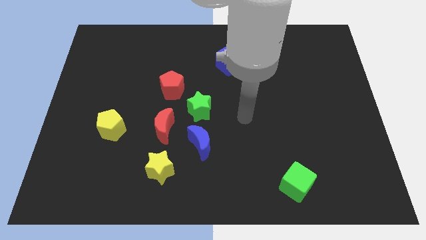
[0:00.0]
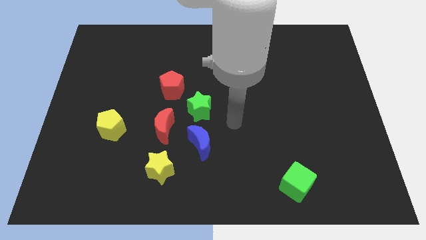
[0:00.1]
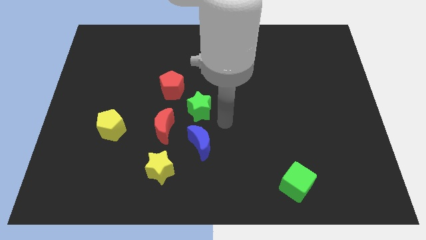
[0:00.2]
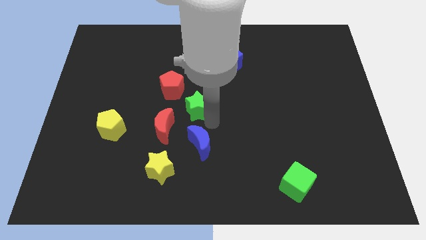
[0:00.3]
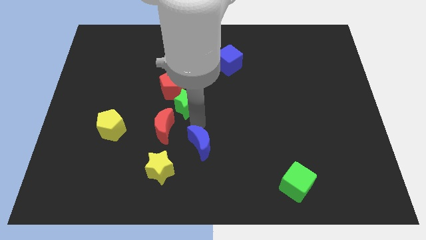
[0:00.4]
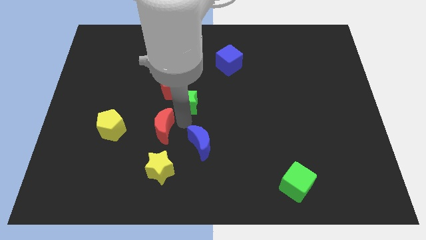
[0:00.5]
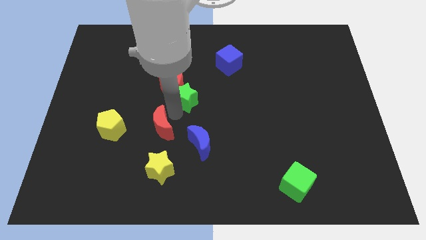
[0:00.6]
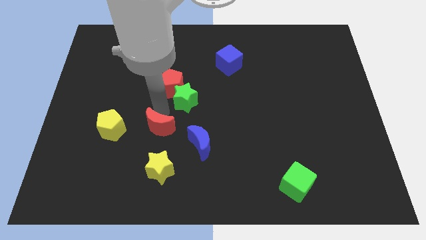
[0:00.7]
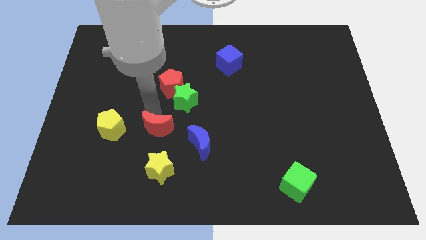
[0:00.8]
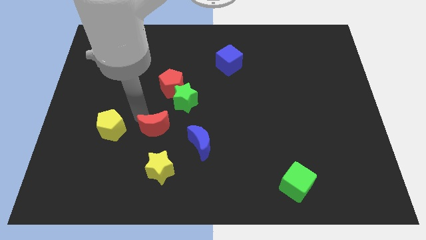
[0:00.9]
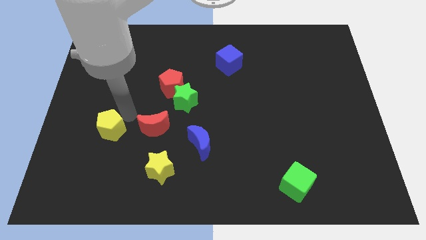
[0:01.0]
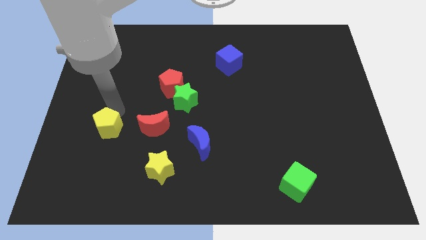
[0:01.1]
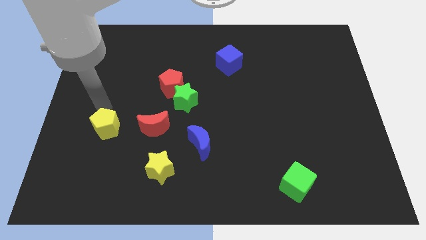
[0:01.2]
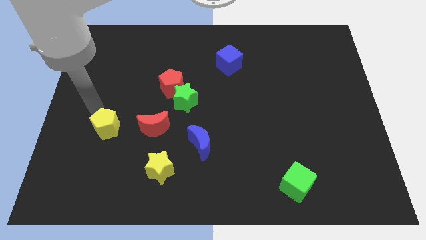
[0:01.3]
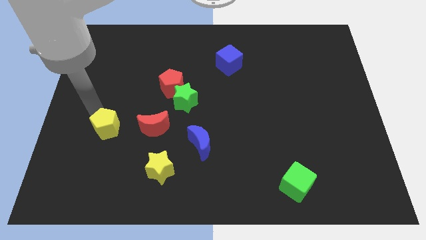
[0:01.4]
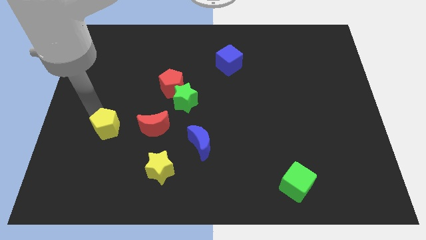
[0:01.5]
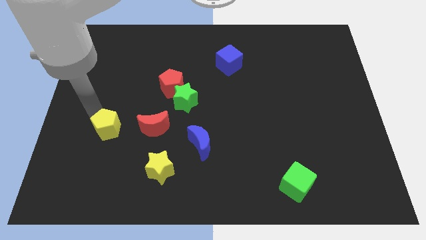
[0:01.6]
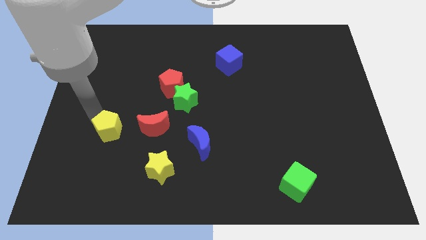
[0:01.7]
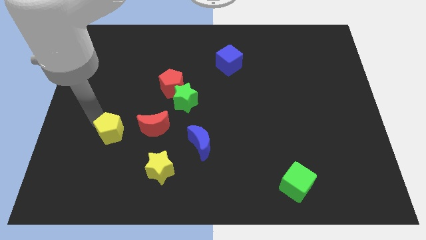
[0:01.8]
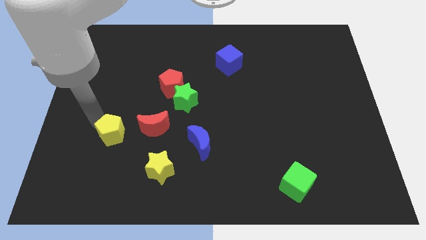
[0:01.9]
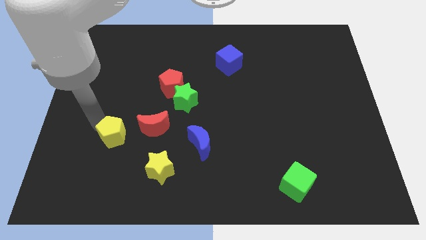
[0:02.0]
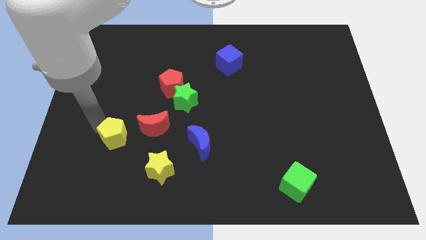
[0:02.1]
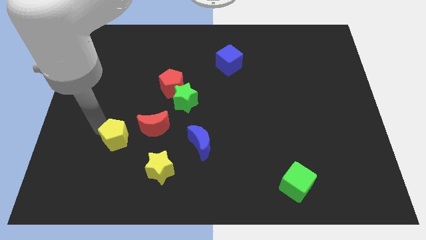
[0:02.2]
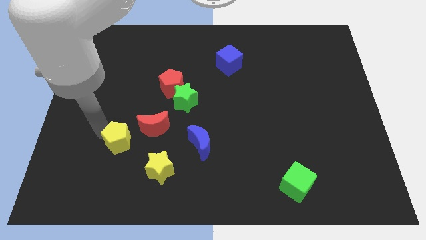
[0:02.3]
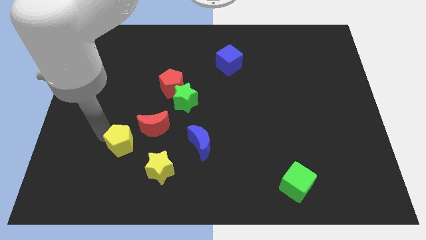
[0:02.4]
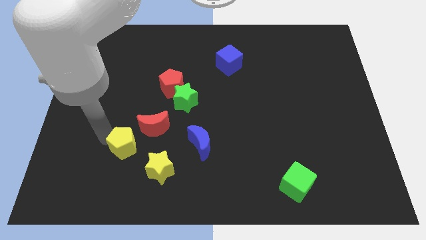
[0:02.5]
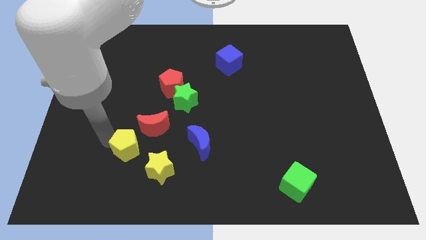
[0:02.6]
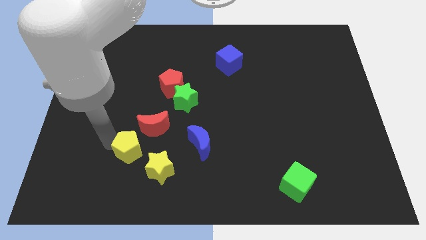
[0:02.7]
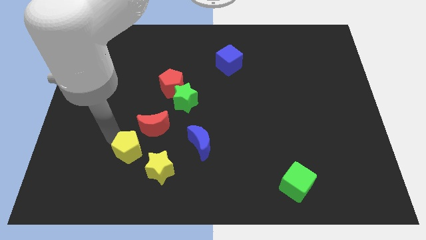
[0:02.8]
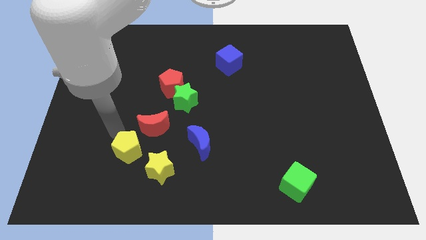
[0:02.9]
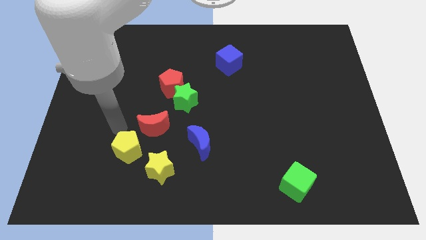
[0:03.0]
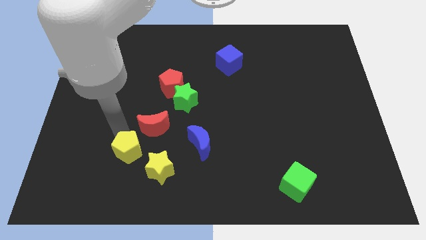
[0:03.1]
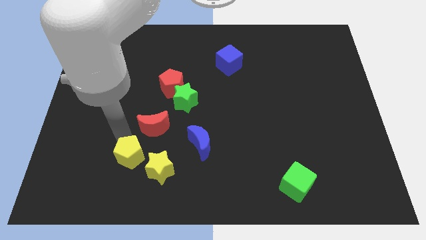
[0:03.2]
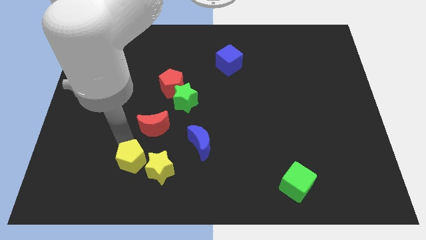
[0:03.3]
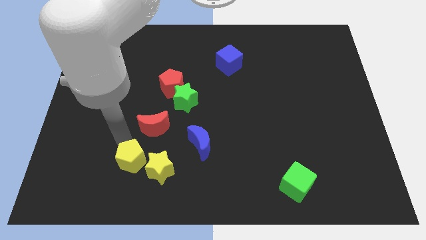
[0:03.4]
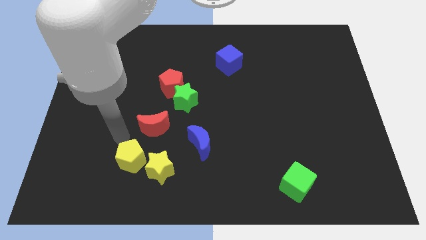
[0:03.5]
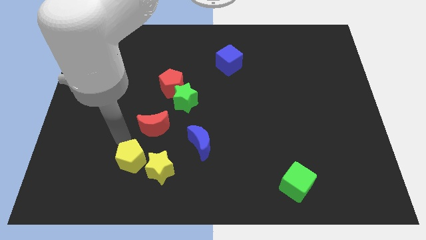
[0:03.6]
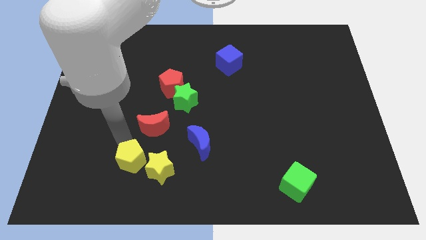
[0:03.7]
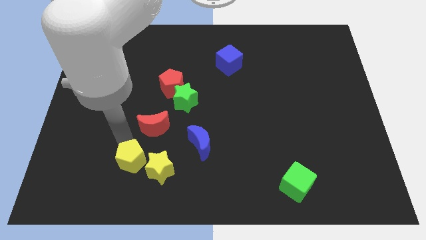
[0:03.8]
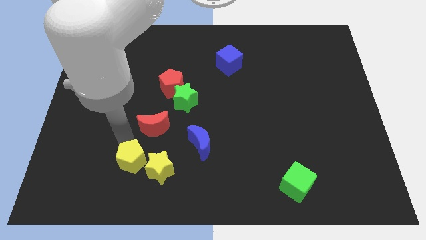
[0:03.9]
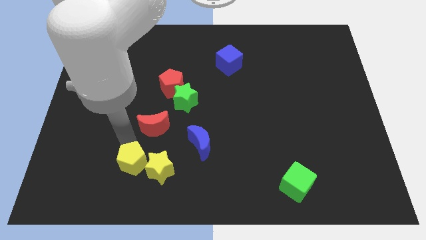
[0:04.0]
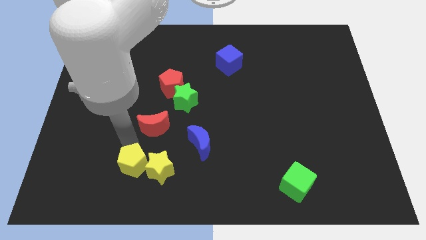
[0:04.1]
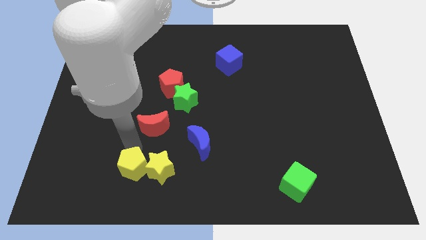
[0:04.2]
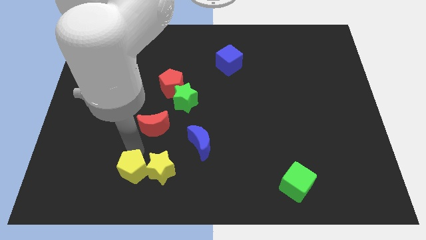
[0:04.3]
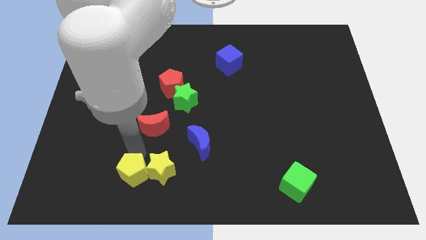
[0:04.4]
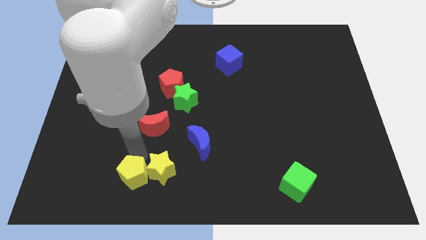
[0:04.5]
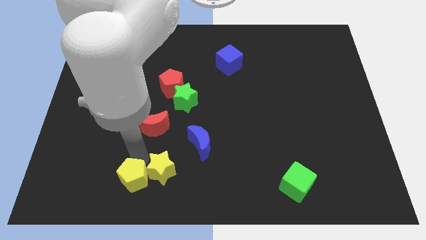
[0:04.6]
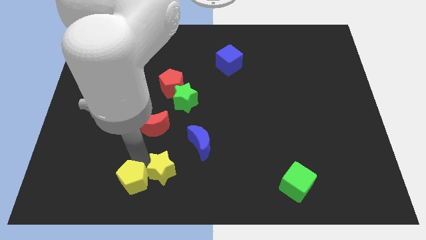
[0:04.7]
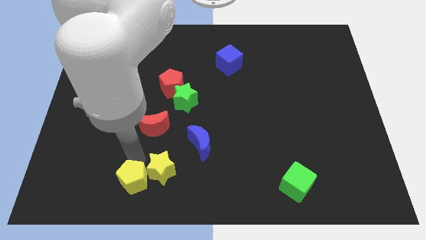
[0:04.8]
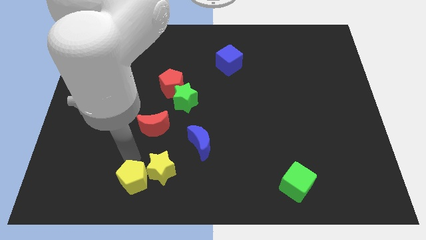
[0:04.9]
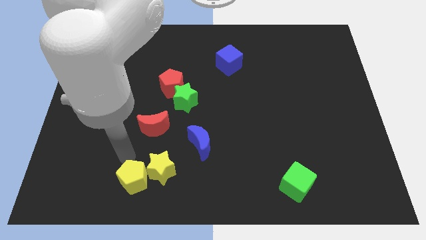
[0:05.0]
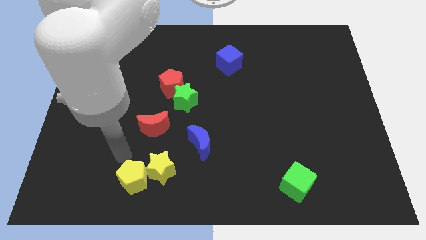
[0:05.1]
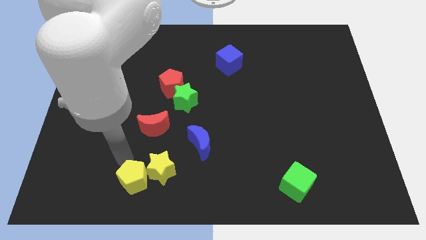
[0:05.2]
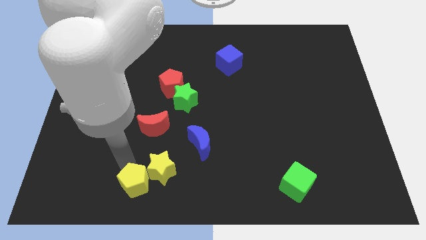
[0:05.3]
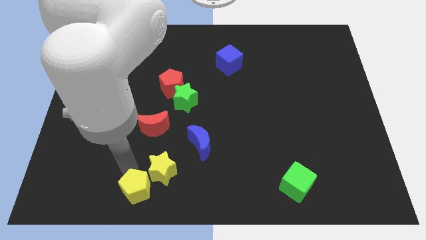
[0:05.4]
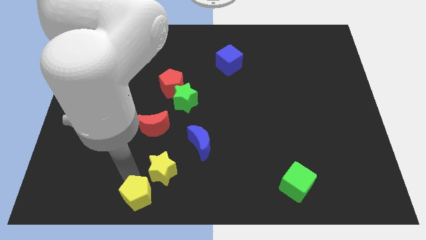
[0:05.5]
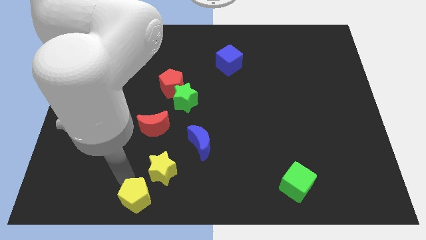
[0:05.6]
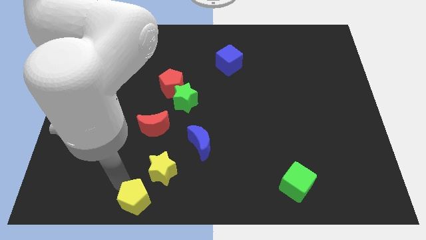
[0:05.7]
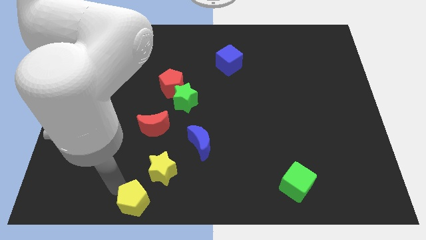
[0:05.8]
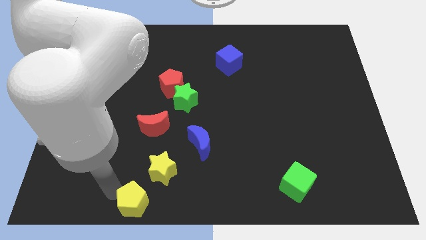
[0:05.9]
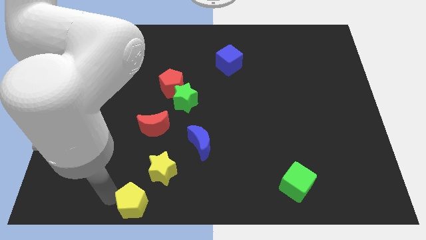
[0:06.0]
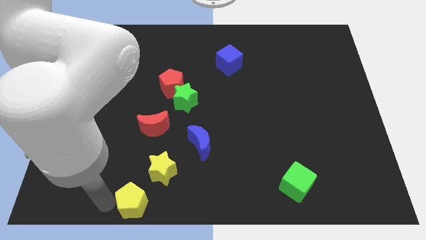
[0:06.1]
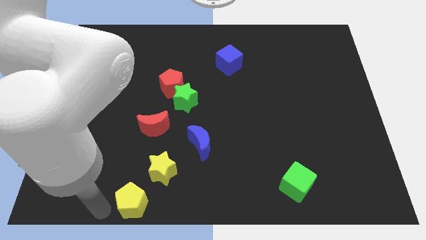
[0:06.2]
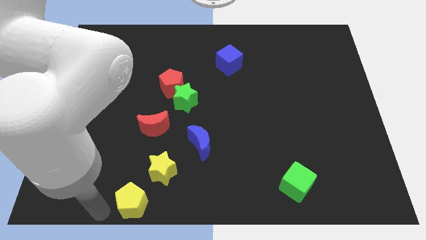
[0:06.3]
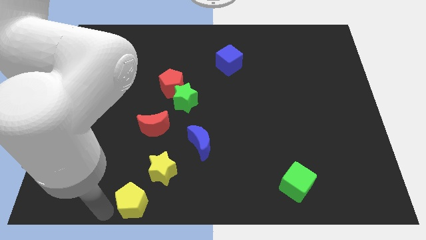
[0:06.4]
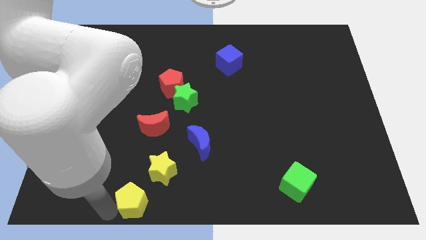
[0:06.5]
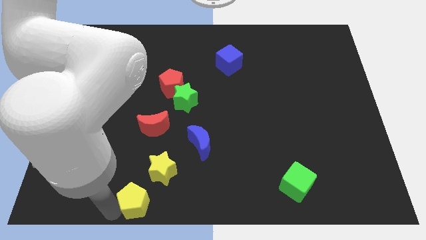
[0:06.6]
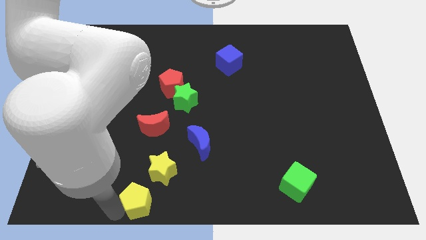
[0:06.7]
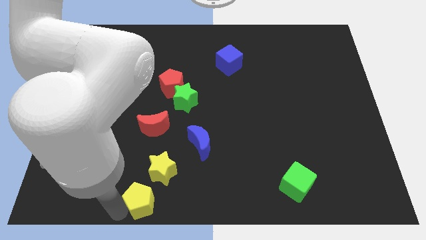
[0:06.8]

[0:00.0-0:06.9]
move the yellow pentagon to the bottom
